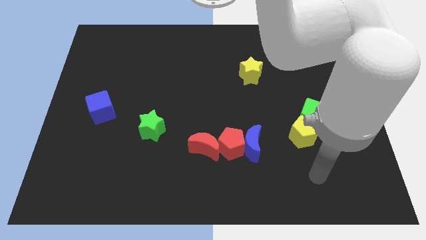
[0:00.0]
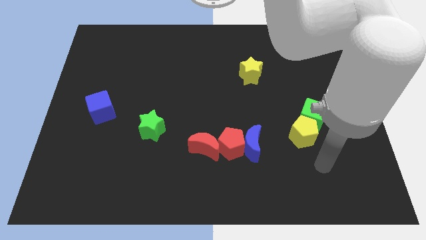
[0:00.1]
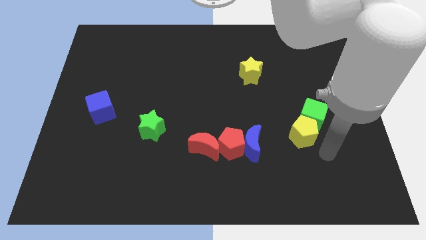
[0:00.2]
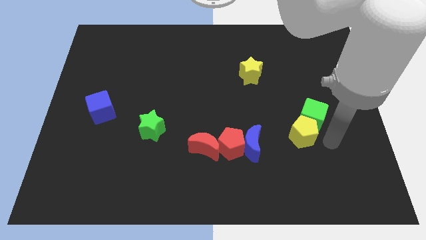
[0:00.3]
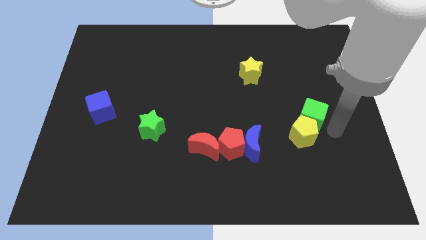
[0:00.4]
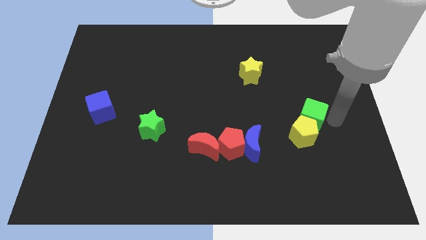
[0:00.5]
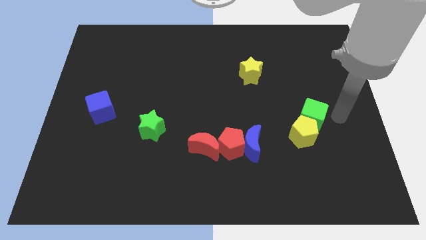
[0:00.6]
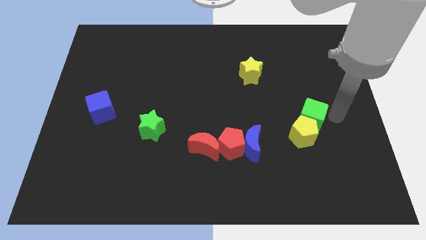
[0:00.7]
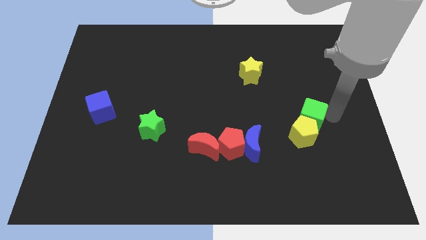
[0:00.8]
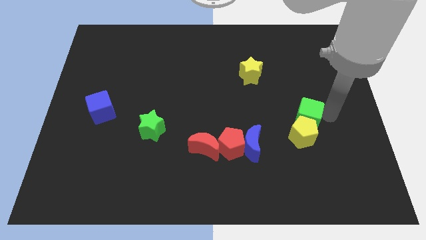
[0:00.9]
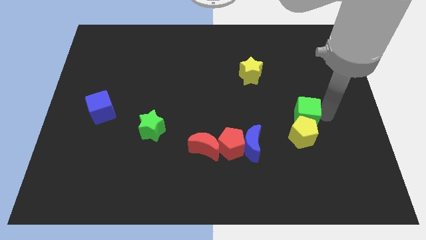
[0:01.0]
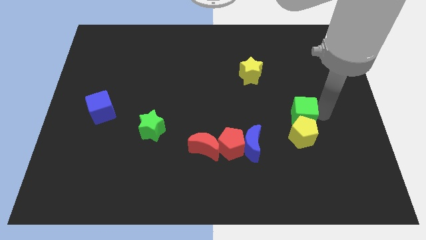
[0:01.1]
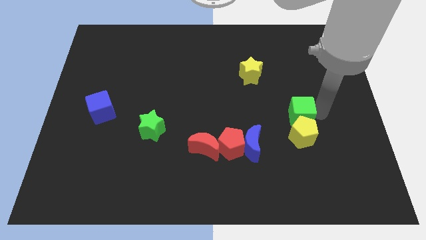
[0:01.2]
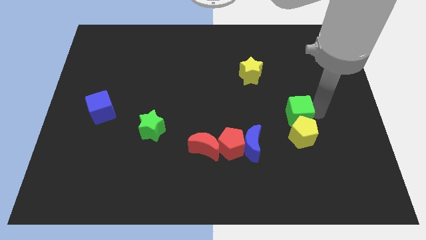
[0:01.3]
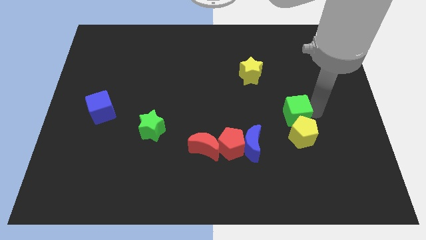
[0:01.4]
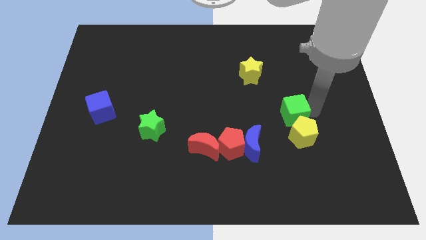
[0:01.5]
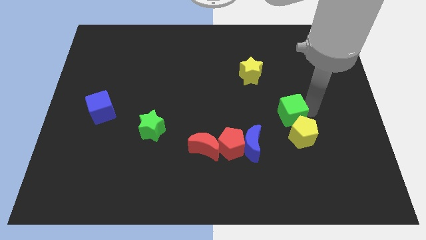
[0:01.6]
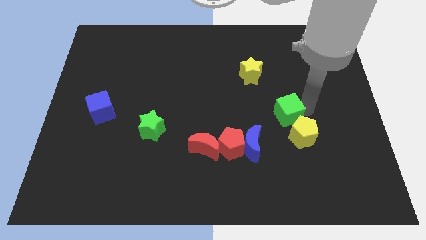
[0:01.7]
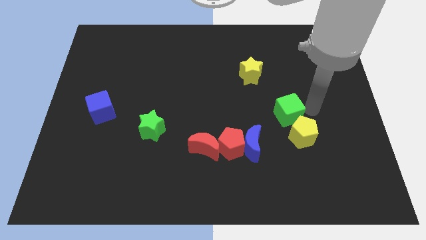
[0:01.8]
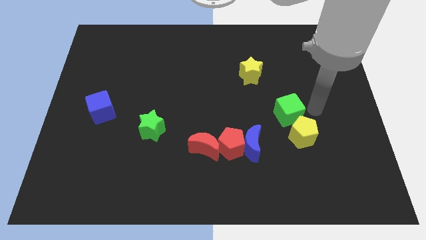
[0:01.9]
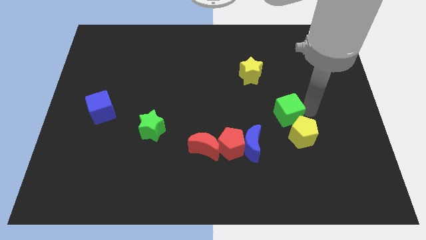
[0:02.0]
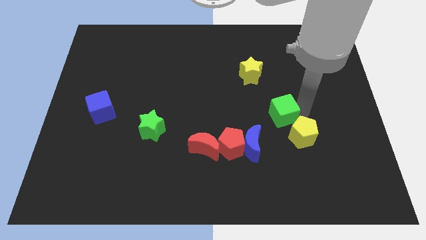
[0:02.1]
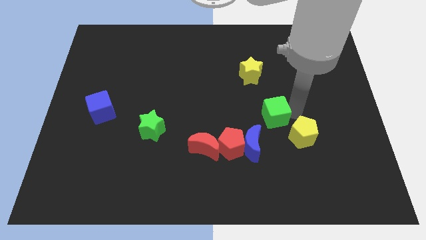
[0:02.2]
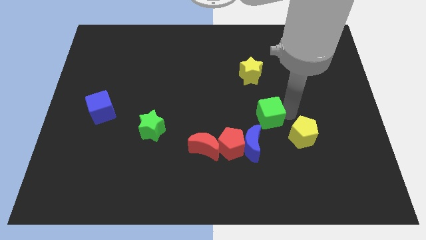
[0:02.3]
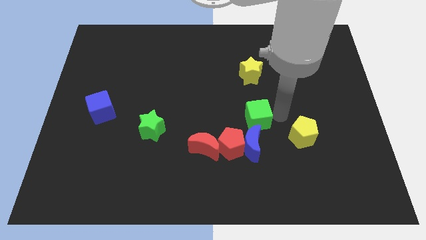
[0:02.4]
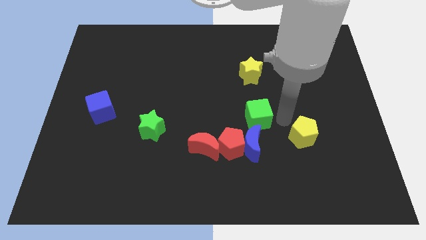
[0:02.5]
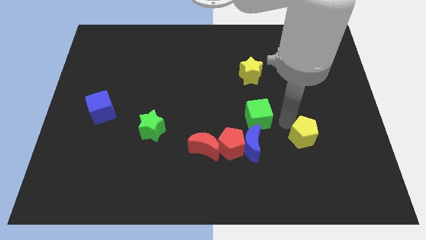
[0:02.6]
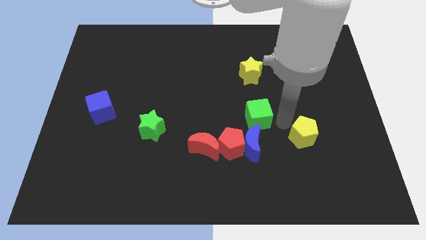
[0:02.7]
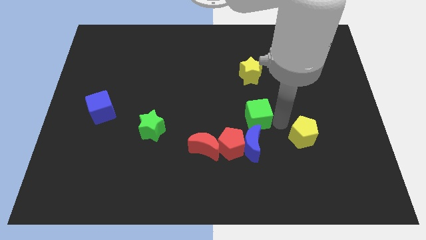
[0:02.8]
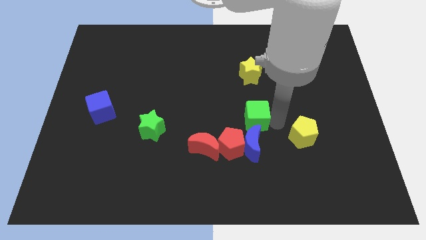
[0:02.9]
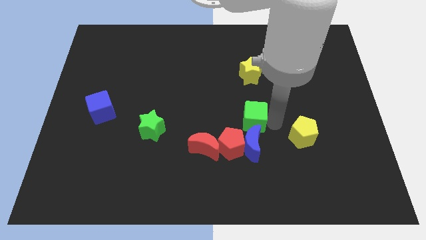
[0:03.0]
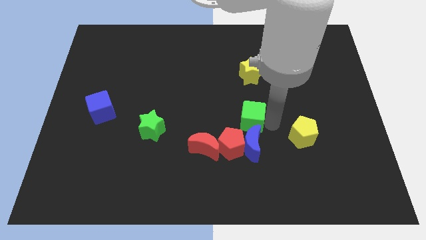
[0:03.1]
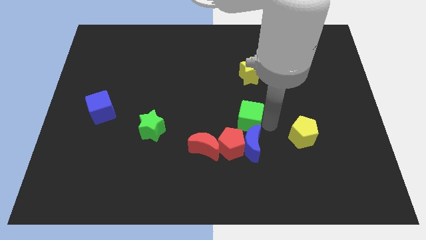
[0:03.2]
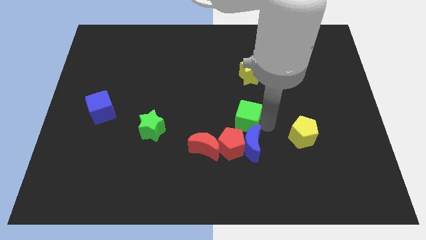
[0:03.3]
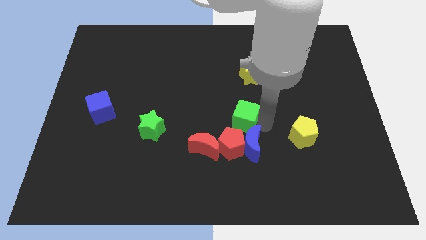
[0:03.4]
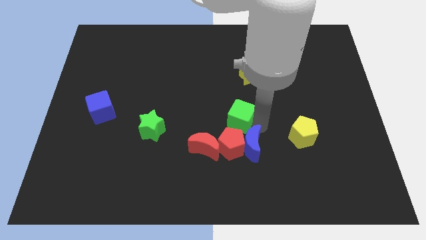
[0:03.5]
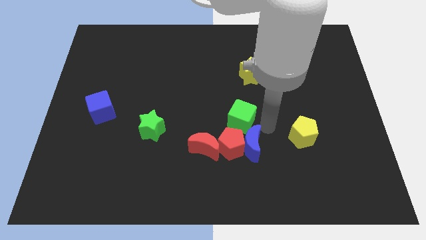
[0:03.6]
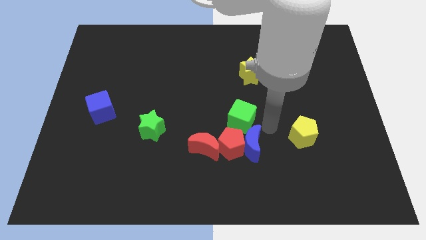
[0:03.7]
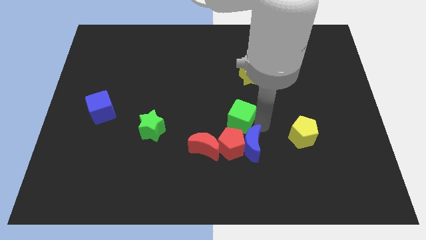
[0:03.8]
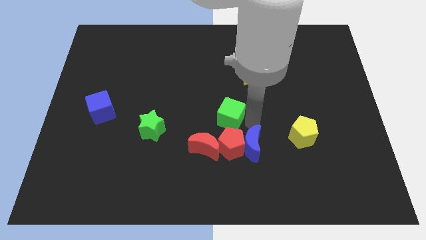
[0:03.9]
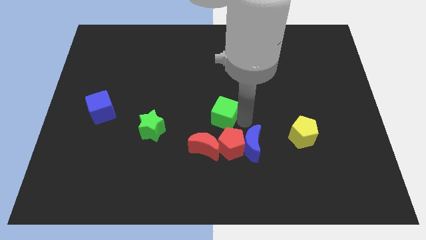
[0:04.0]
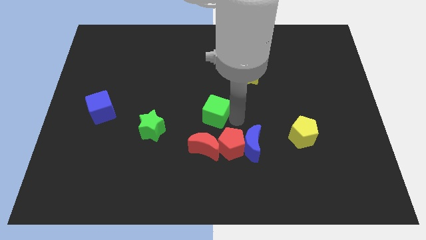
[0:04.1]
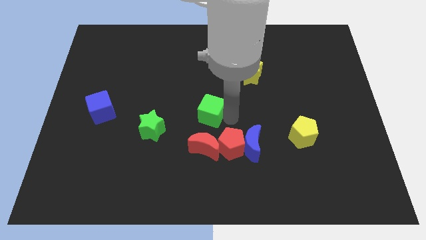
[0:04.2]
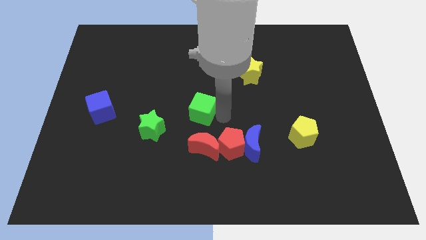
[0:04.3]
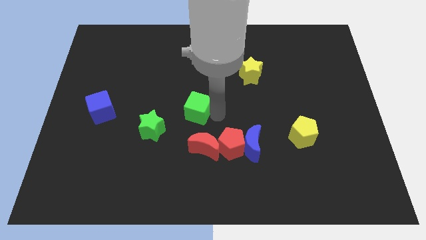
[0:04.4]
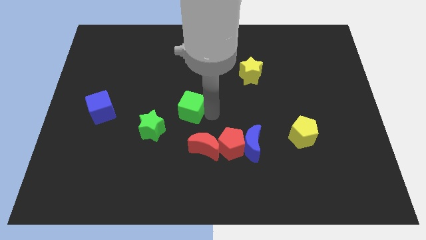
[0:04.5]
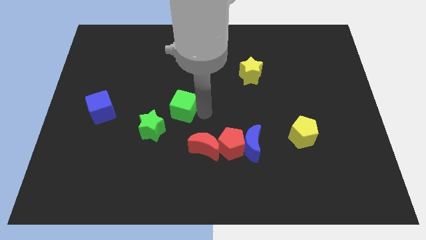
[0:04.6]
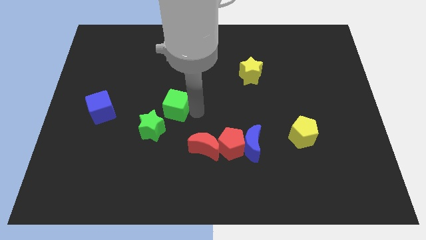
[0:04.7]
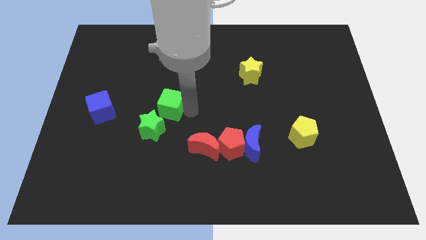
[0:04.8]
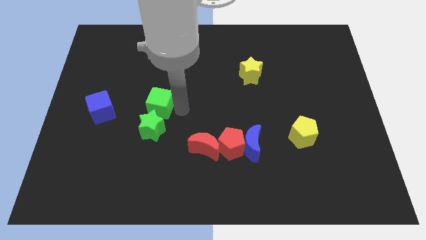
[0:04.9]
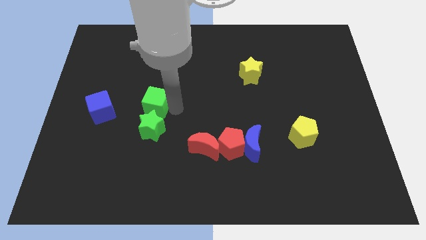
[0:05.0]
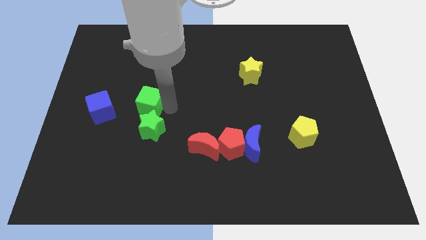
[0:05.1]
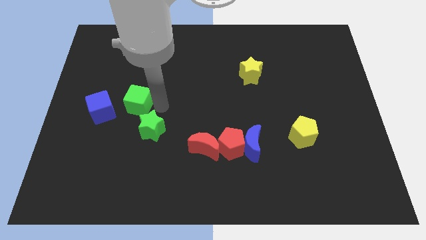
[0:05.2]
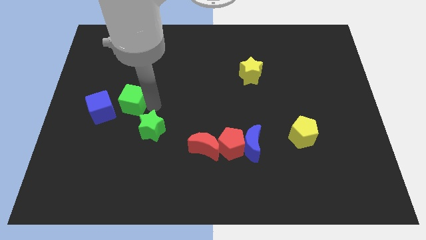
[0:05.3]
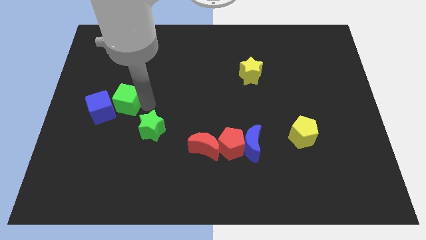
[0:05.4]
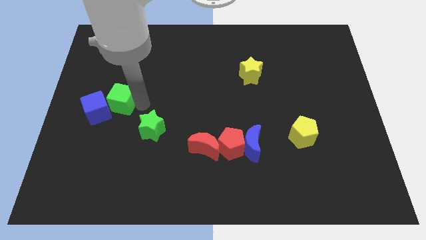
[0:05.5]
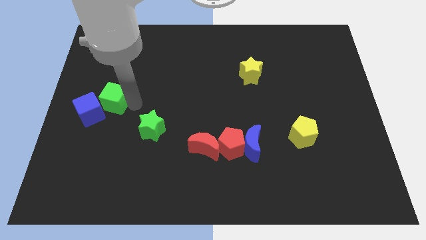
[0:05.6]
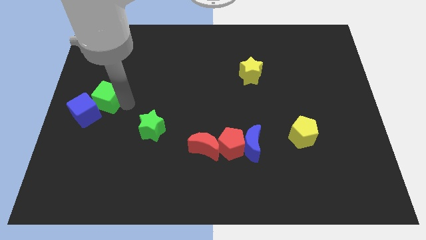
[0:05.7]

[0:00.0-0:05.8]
put the green cube to the left side of the board

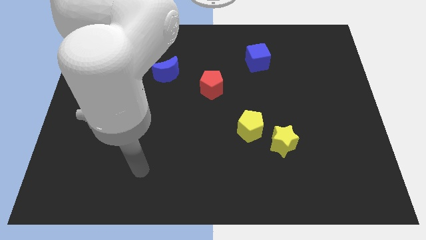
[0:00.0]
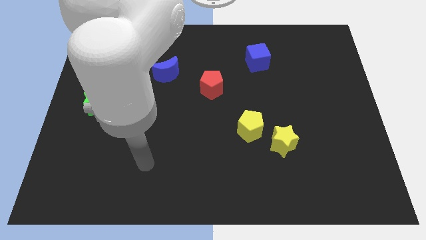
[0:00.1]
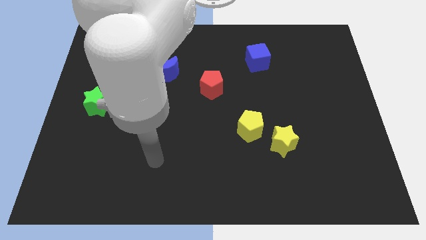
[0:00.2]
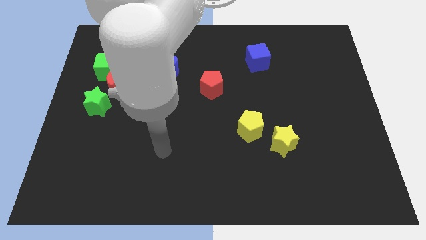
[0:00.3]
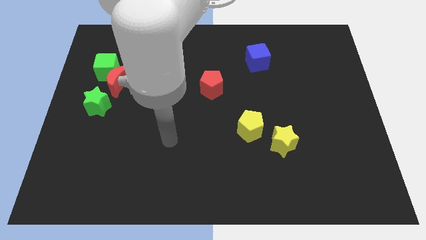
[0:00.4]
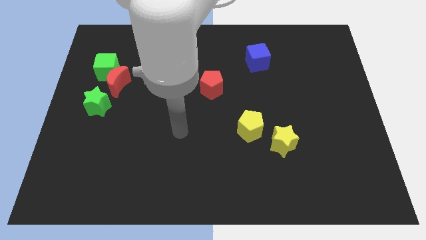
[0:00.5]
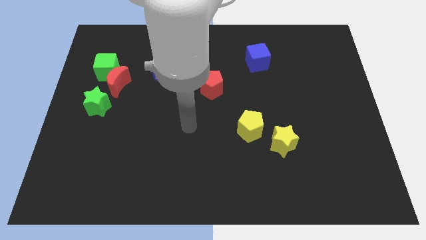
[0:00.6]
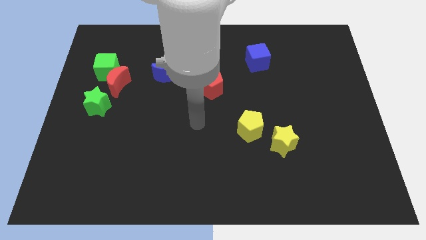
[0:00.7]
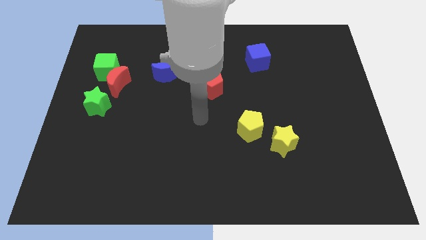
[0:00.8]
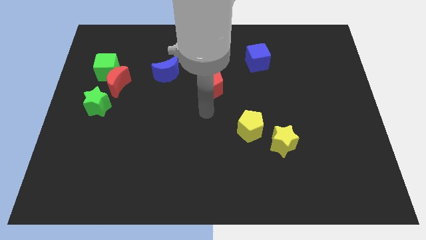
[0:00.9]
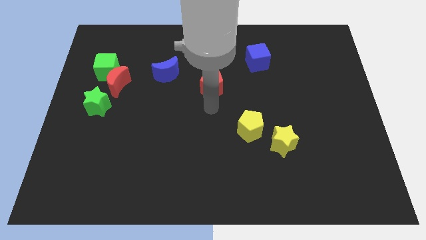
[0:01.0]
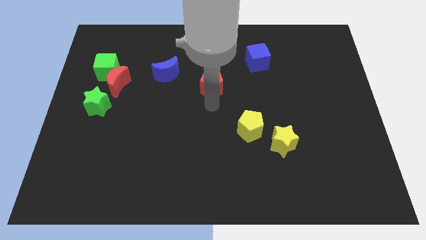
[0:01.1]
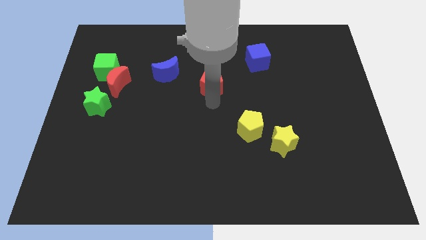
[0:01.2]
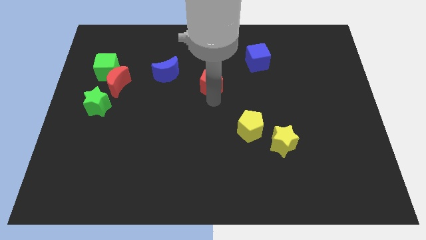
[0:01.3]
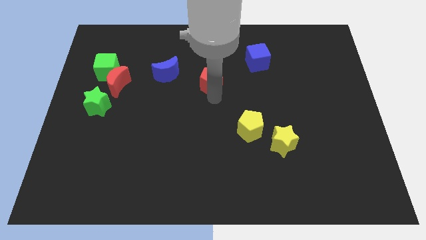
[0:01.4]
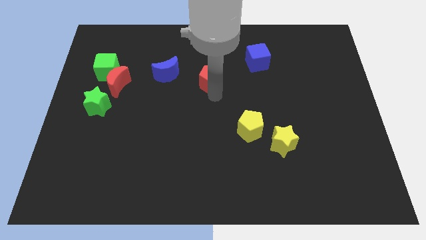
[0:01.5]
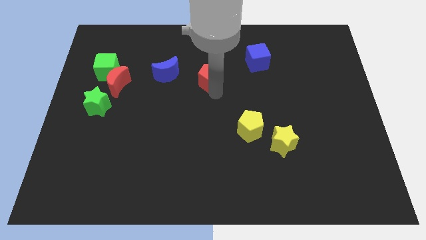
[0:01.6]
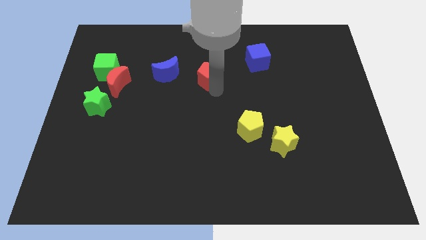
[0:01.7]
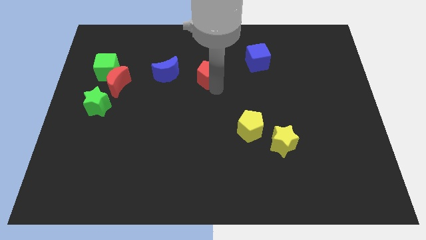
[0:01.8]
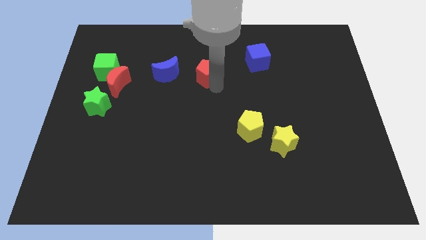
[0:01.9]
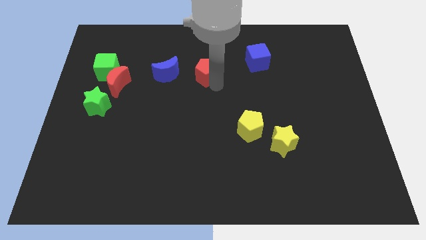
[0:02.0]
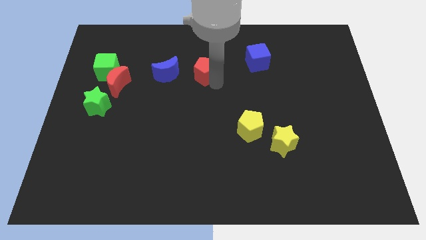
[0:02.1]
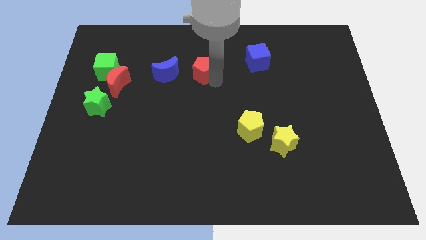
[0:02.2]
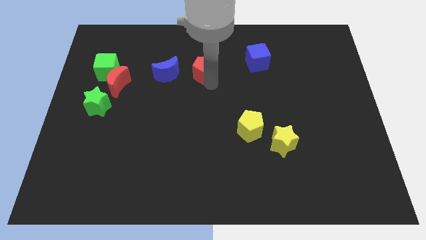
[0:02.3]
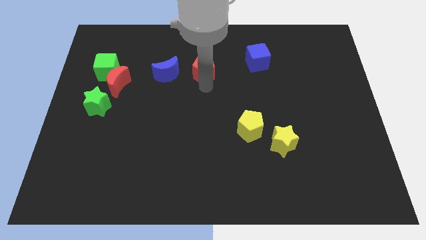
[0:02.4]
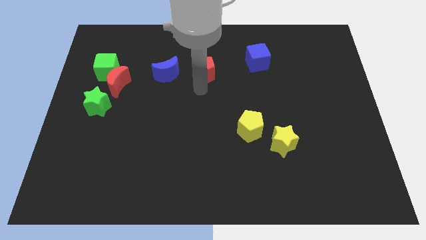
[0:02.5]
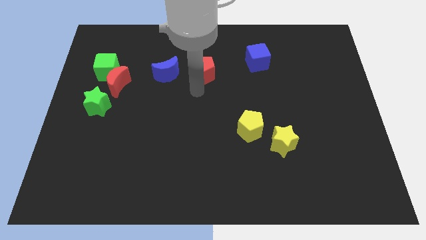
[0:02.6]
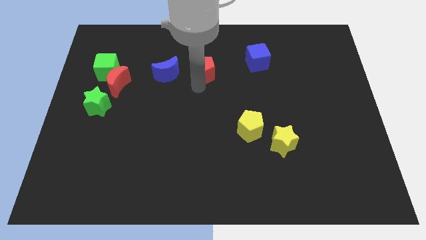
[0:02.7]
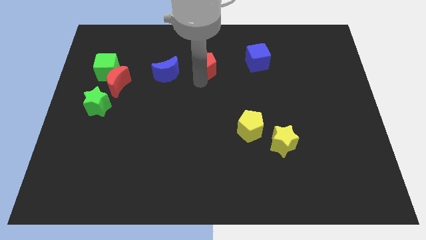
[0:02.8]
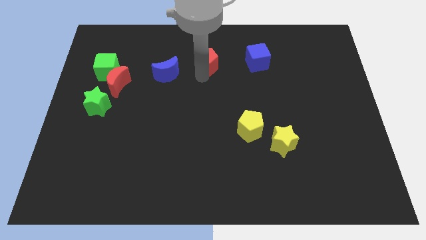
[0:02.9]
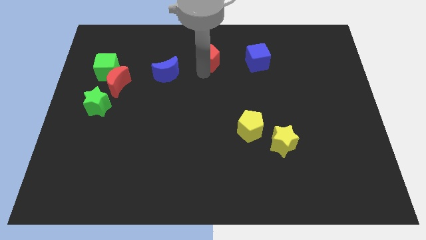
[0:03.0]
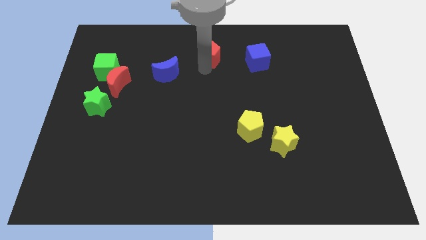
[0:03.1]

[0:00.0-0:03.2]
slide the red pentagon to the top
